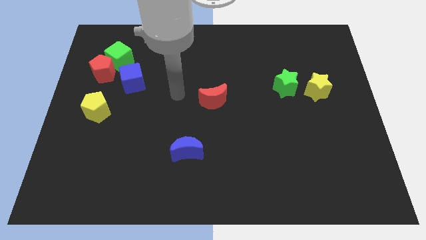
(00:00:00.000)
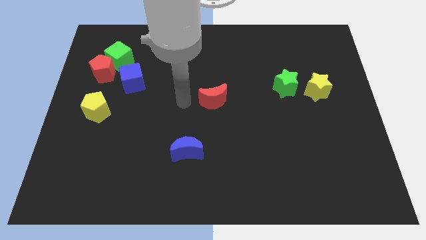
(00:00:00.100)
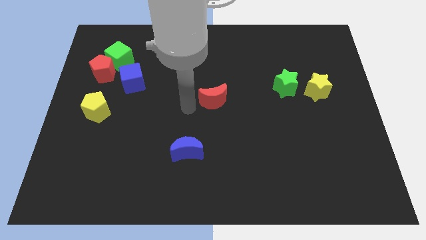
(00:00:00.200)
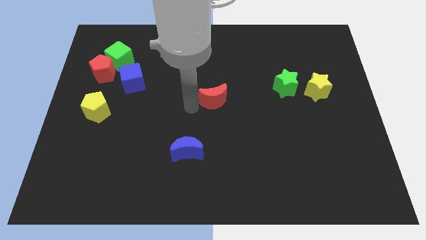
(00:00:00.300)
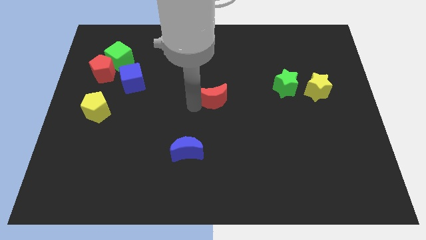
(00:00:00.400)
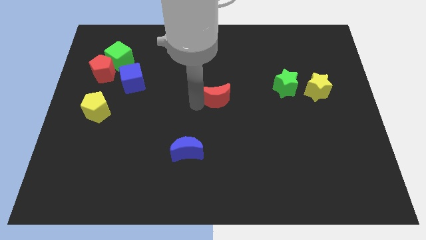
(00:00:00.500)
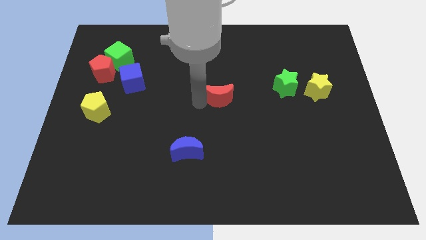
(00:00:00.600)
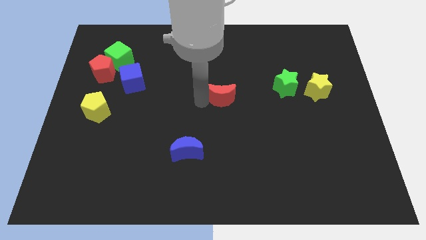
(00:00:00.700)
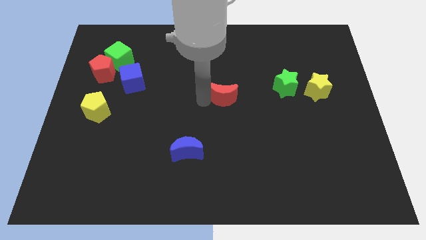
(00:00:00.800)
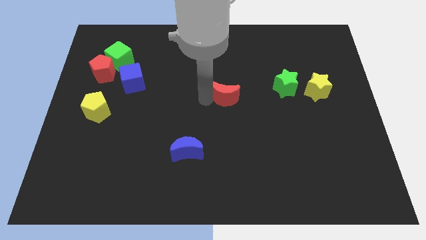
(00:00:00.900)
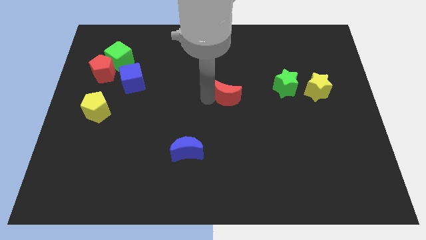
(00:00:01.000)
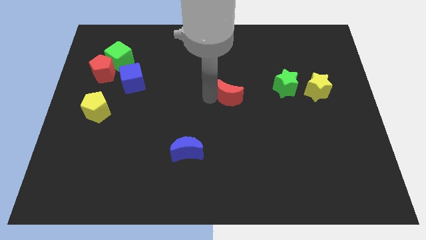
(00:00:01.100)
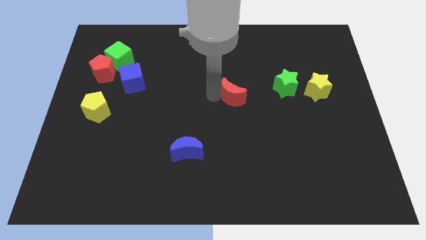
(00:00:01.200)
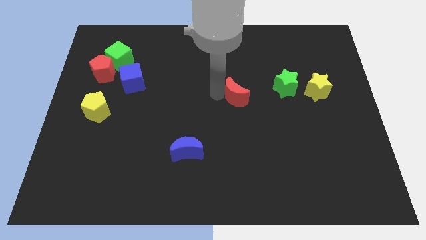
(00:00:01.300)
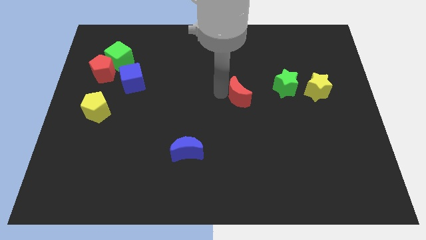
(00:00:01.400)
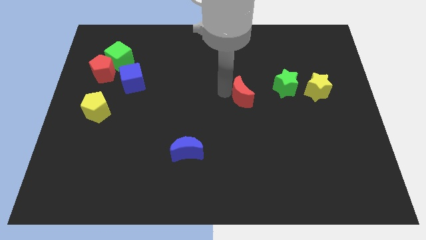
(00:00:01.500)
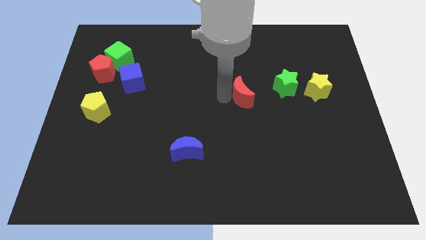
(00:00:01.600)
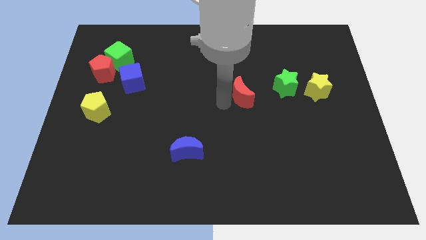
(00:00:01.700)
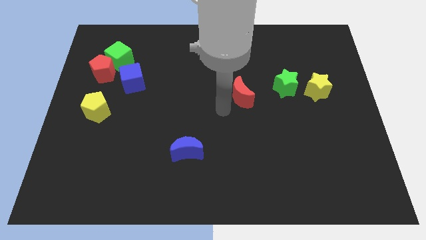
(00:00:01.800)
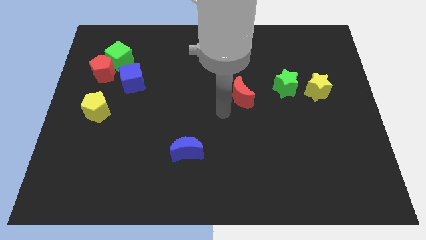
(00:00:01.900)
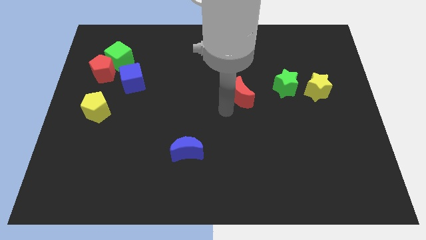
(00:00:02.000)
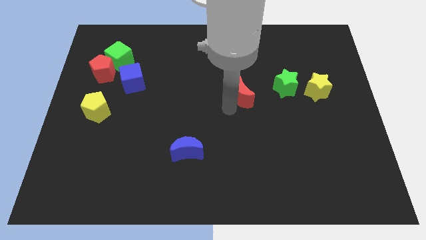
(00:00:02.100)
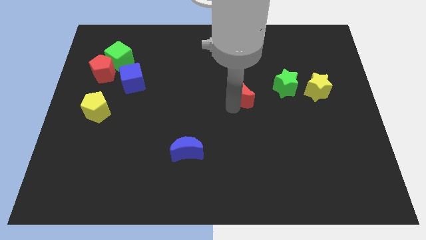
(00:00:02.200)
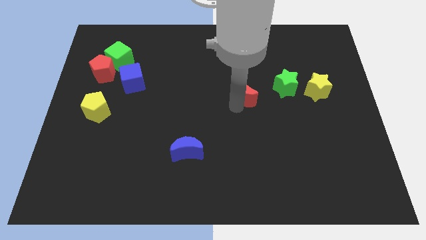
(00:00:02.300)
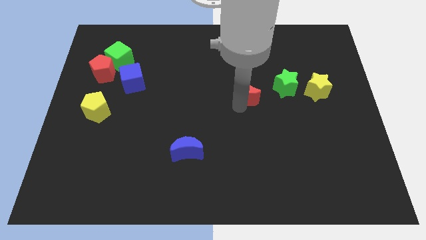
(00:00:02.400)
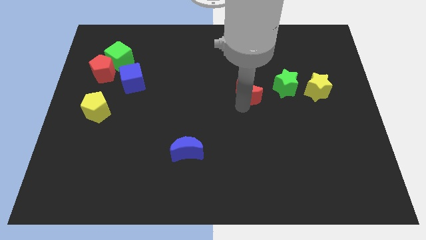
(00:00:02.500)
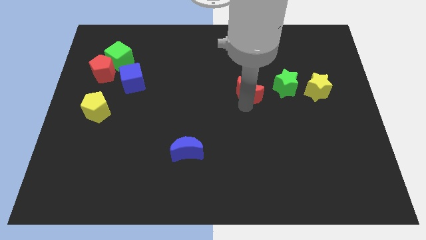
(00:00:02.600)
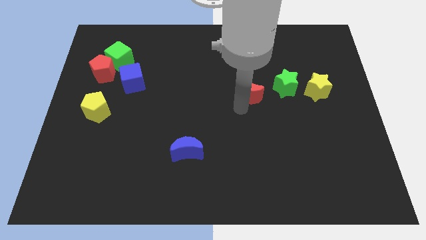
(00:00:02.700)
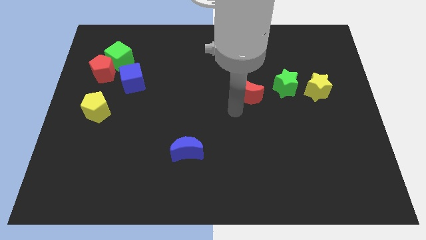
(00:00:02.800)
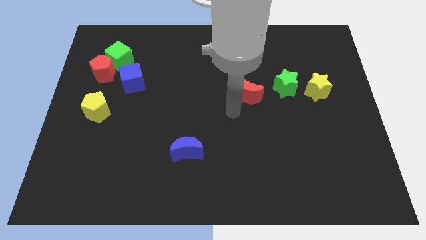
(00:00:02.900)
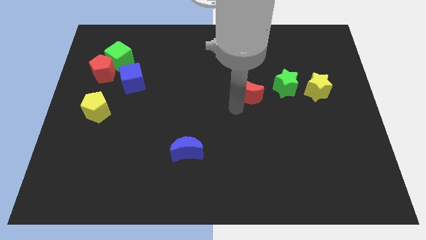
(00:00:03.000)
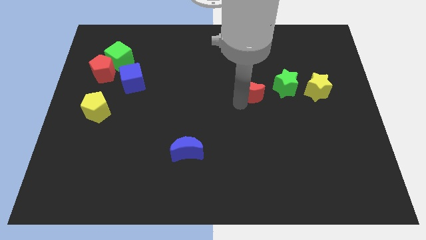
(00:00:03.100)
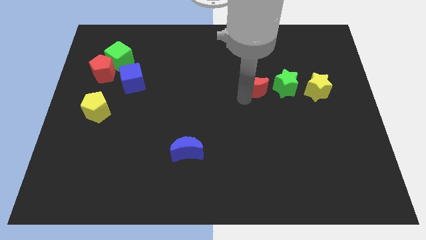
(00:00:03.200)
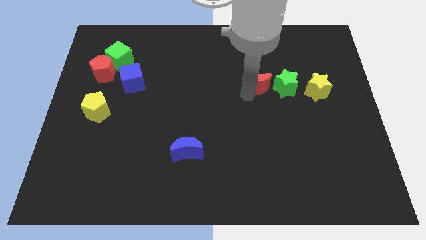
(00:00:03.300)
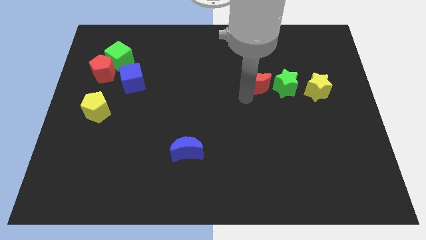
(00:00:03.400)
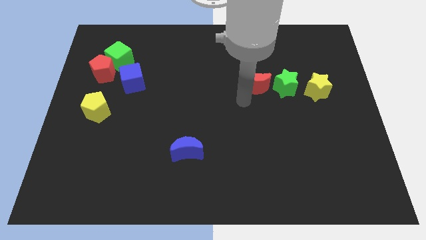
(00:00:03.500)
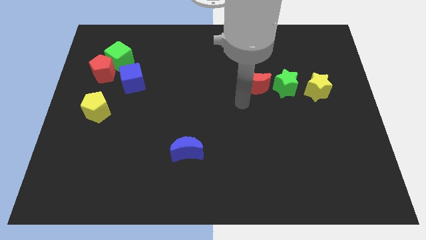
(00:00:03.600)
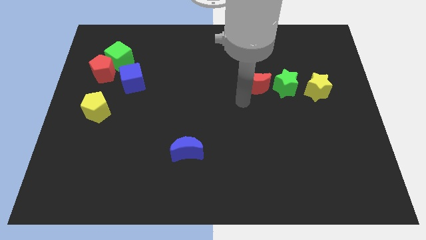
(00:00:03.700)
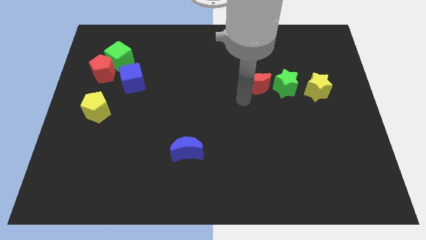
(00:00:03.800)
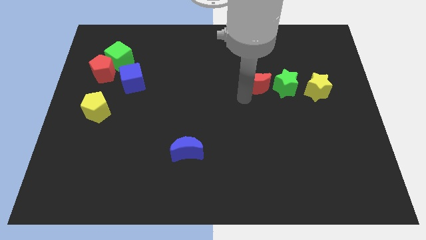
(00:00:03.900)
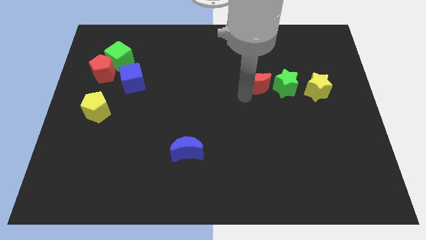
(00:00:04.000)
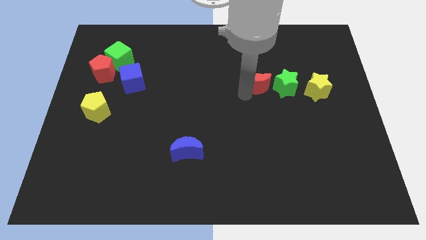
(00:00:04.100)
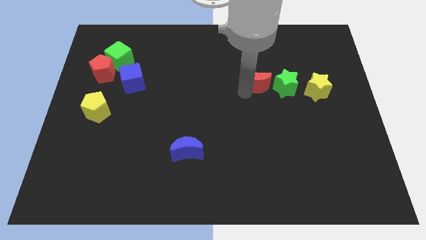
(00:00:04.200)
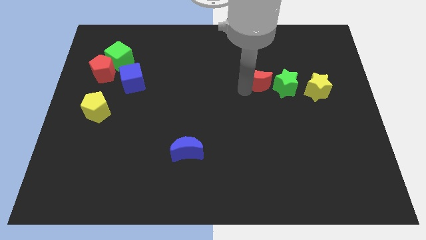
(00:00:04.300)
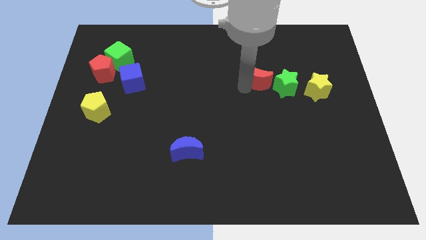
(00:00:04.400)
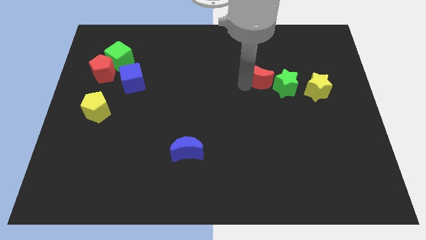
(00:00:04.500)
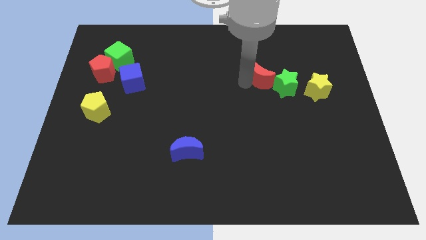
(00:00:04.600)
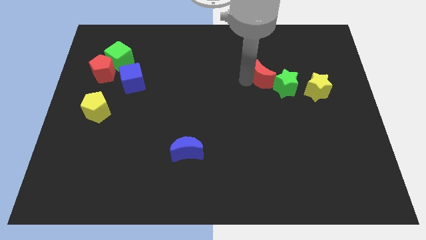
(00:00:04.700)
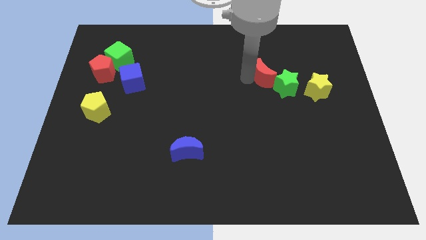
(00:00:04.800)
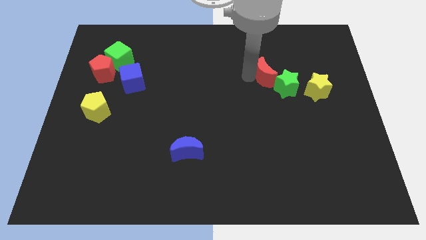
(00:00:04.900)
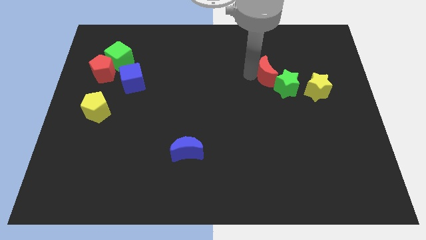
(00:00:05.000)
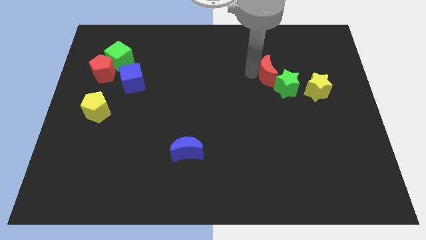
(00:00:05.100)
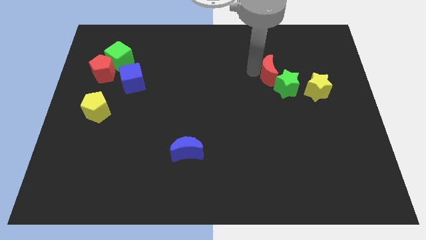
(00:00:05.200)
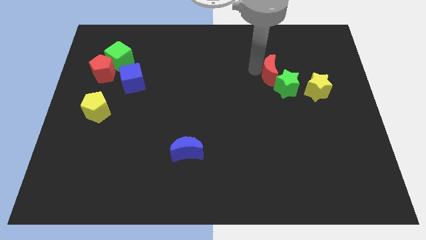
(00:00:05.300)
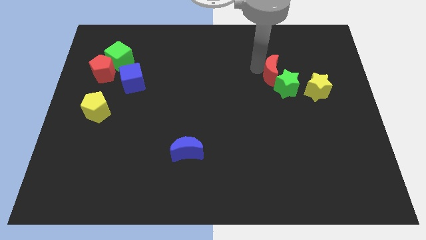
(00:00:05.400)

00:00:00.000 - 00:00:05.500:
slide the red moon diagonally up and to the left of the yellow star

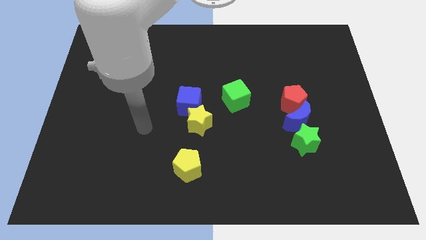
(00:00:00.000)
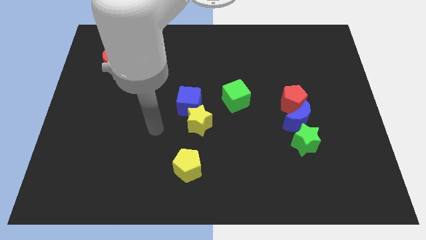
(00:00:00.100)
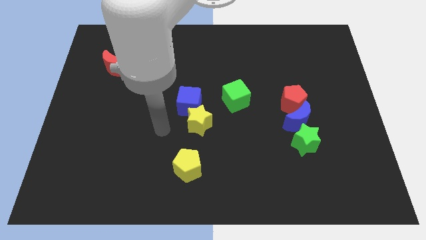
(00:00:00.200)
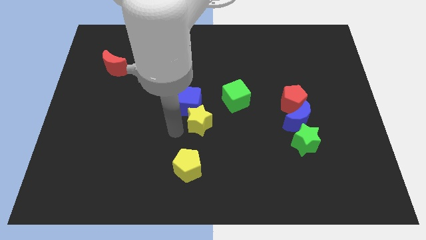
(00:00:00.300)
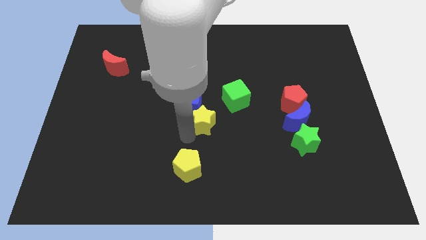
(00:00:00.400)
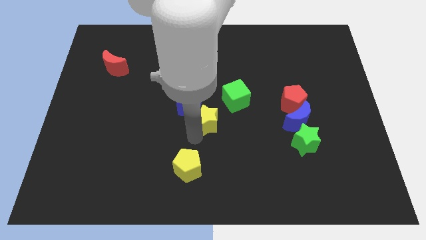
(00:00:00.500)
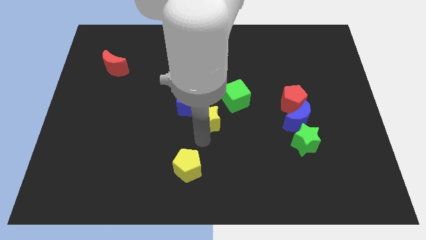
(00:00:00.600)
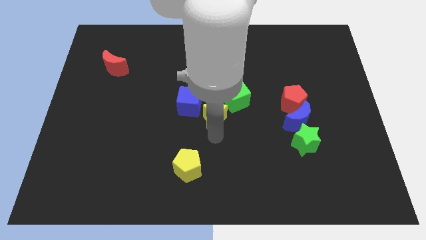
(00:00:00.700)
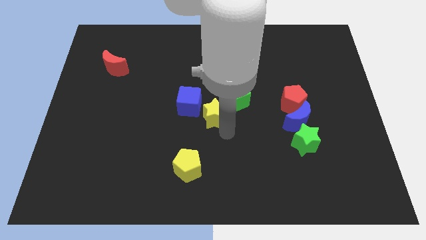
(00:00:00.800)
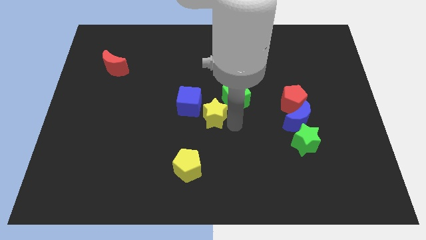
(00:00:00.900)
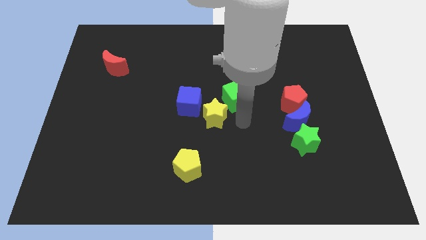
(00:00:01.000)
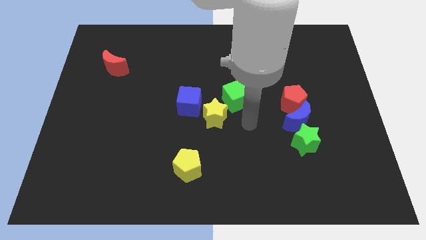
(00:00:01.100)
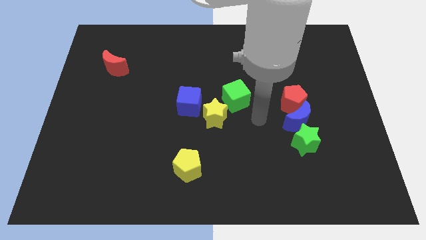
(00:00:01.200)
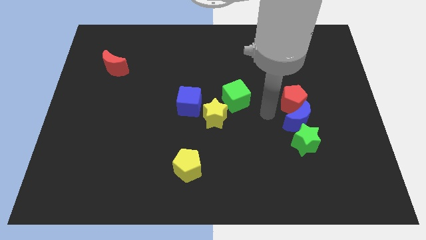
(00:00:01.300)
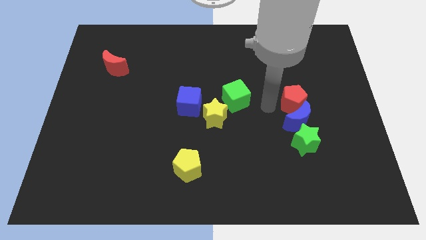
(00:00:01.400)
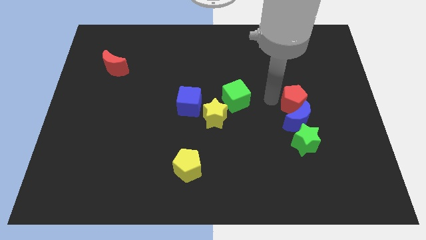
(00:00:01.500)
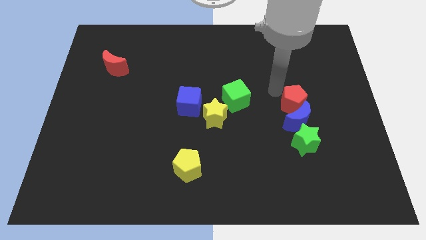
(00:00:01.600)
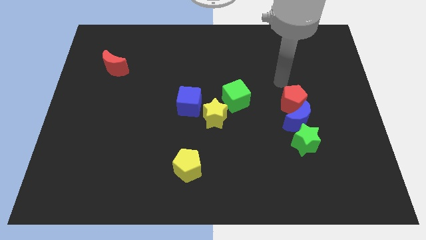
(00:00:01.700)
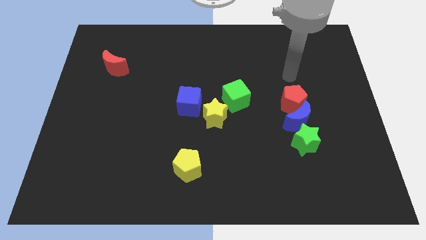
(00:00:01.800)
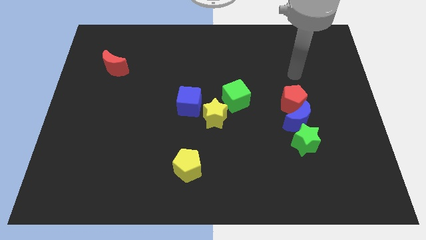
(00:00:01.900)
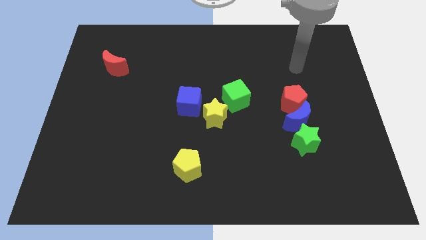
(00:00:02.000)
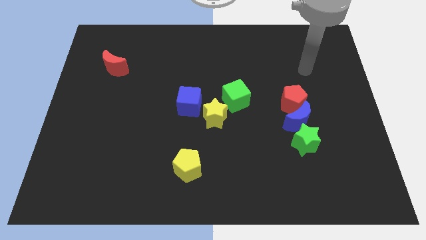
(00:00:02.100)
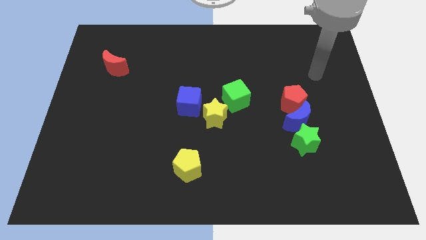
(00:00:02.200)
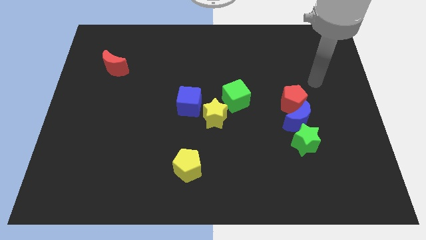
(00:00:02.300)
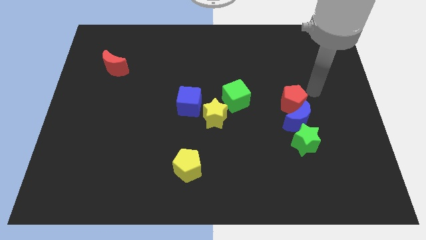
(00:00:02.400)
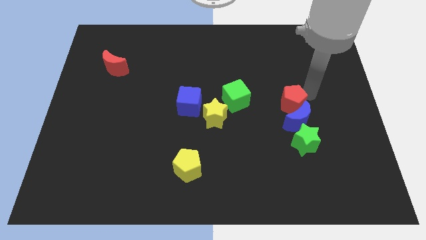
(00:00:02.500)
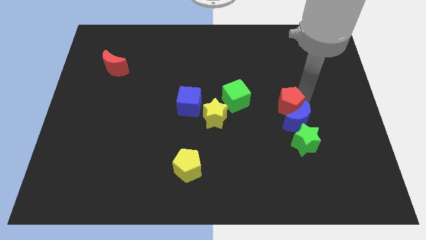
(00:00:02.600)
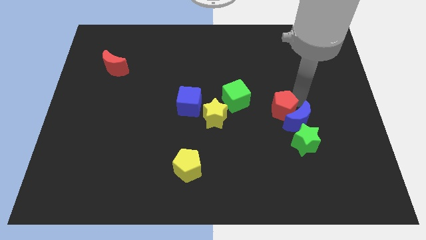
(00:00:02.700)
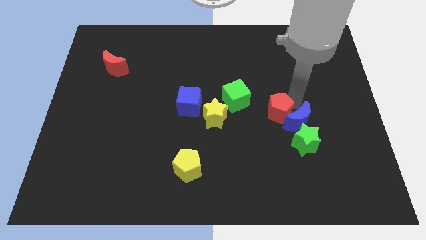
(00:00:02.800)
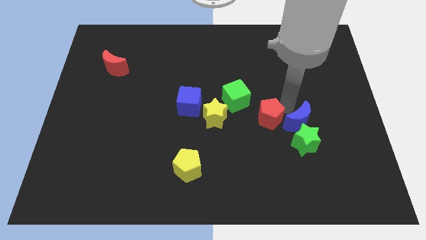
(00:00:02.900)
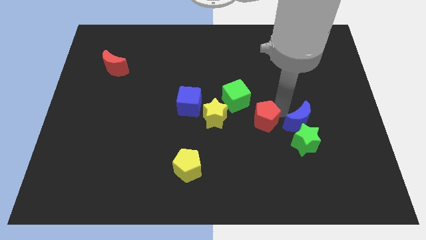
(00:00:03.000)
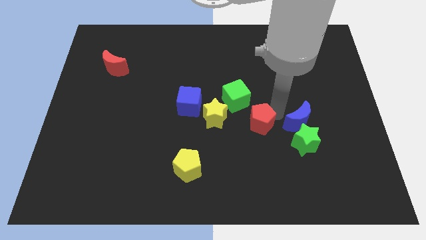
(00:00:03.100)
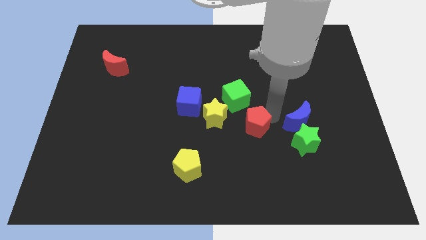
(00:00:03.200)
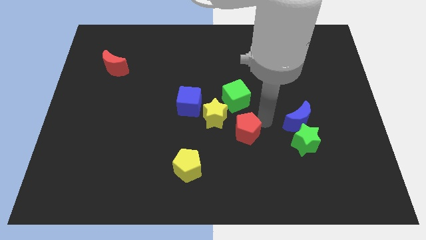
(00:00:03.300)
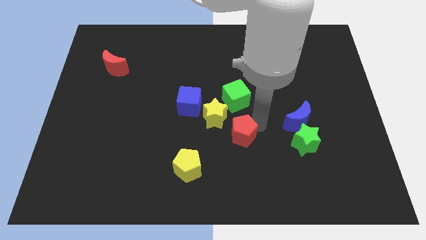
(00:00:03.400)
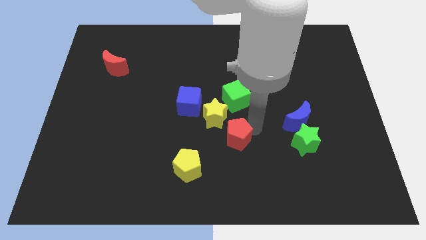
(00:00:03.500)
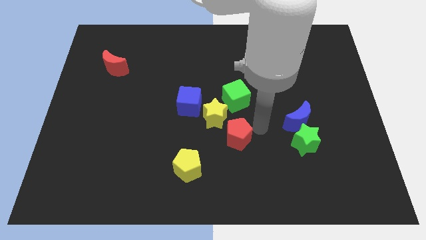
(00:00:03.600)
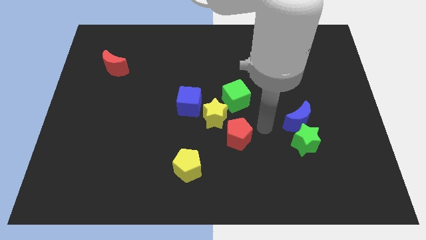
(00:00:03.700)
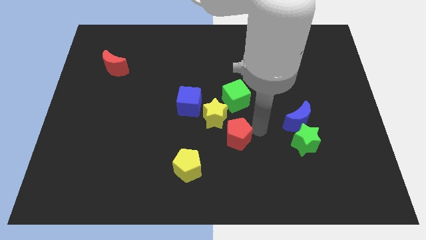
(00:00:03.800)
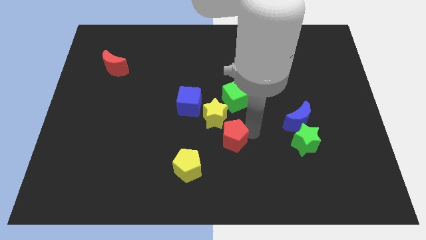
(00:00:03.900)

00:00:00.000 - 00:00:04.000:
slide the red pentagon to the top right side of the yellow pentagon
